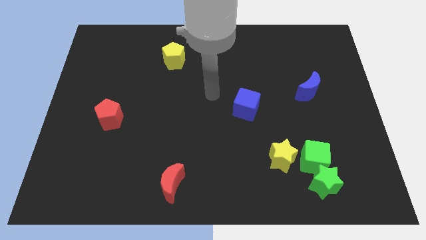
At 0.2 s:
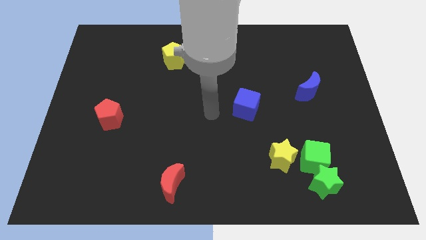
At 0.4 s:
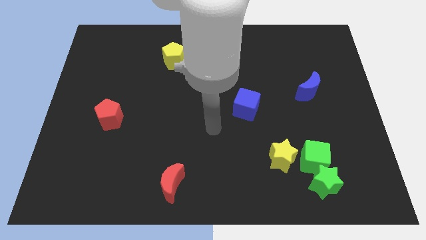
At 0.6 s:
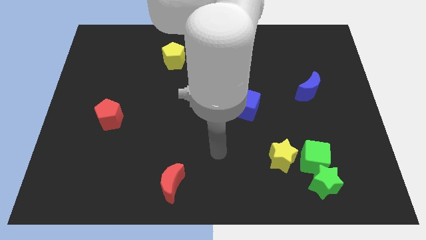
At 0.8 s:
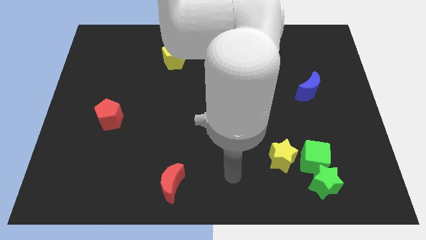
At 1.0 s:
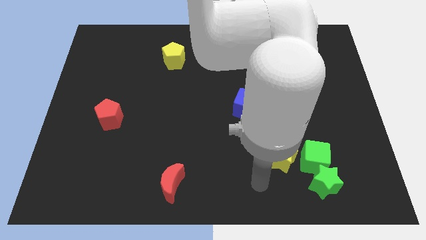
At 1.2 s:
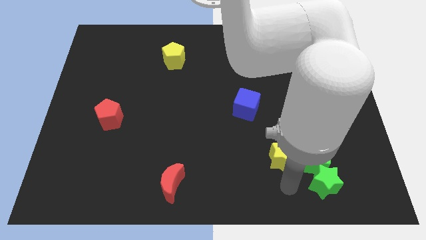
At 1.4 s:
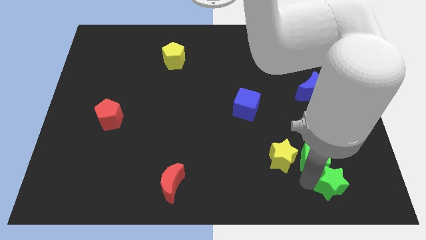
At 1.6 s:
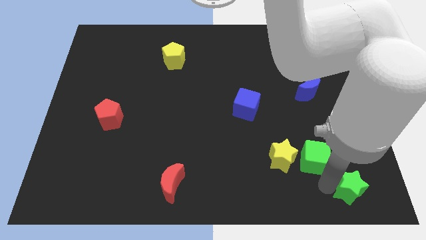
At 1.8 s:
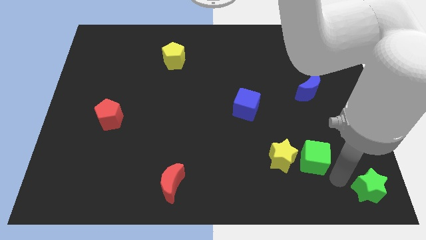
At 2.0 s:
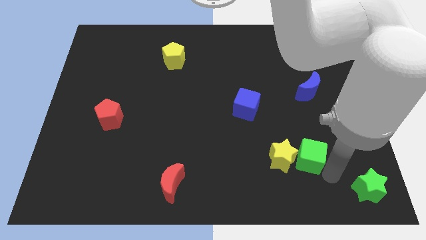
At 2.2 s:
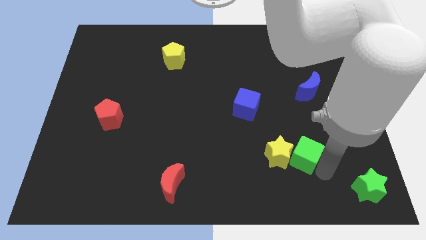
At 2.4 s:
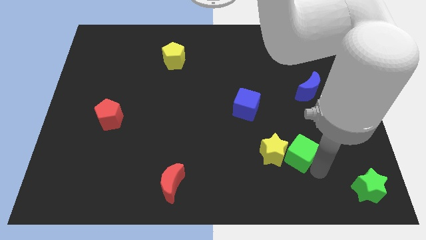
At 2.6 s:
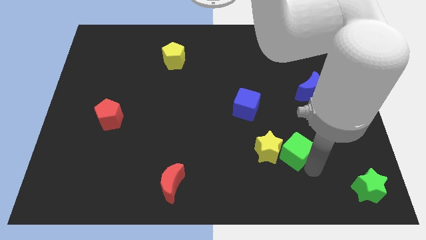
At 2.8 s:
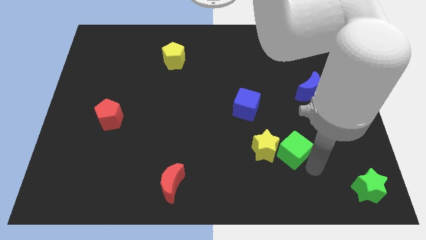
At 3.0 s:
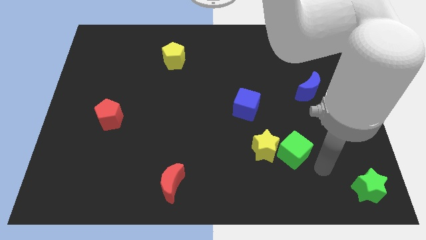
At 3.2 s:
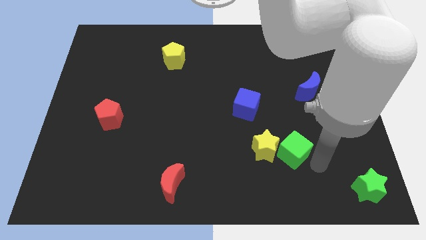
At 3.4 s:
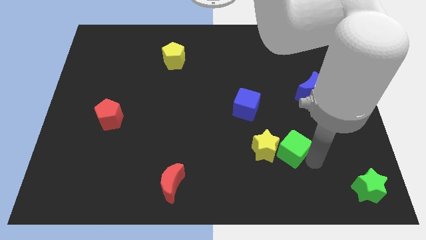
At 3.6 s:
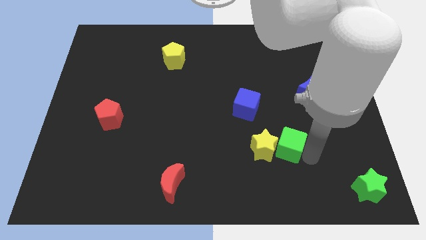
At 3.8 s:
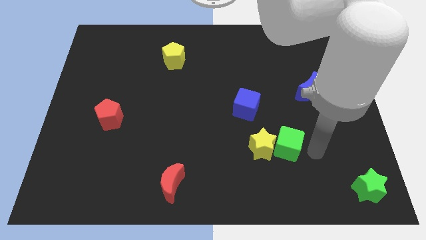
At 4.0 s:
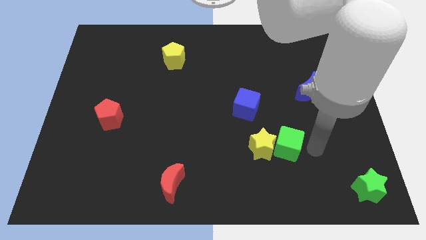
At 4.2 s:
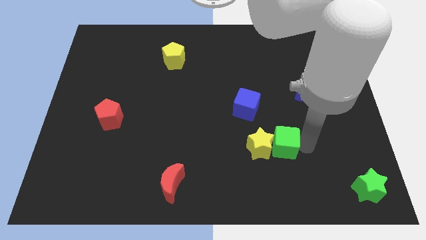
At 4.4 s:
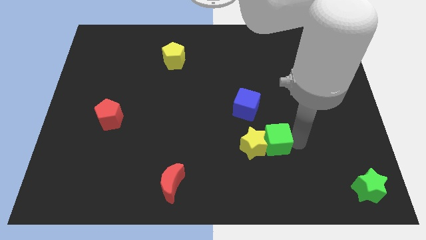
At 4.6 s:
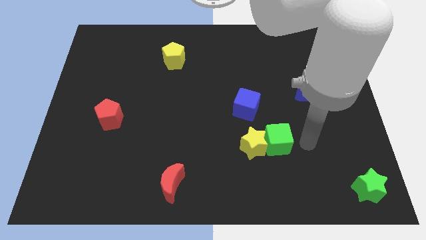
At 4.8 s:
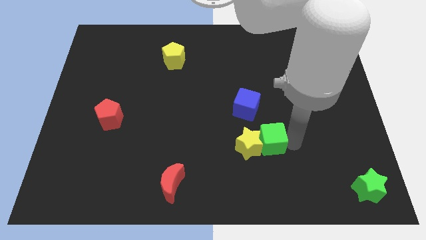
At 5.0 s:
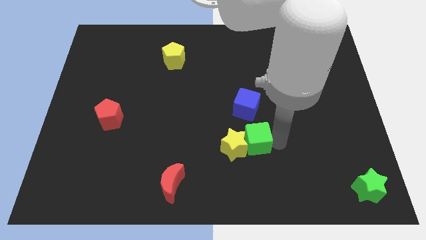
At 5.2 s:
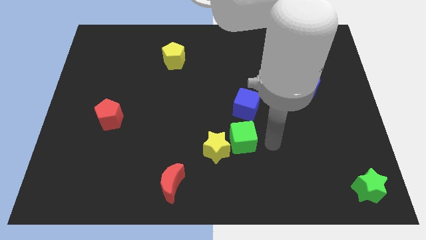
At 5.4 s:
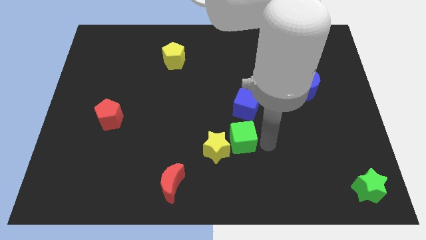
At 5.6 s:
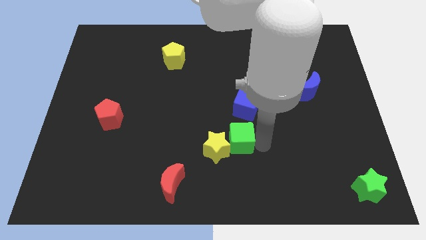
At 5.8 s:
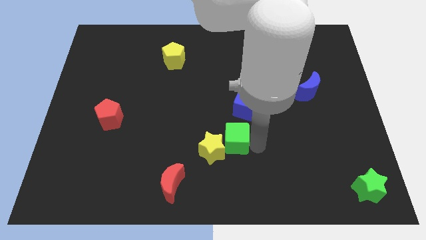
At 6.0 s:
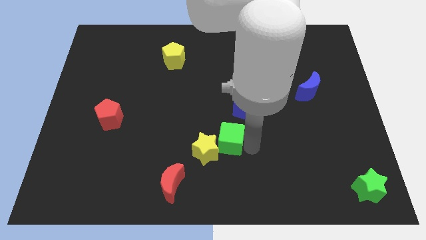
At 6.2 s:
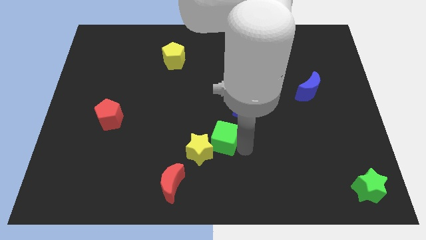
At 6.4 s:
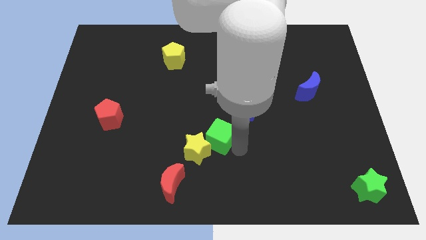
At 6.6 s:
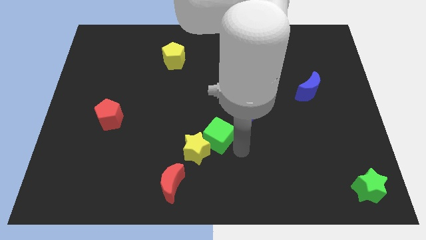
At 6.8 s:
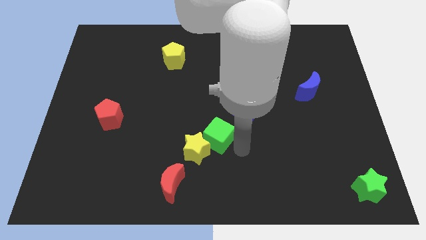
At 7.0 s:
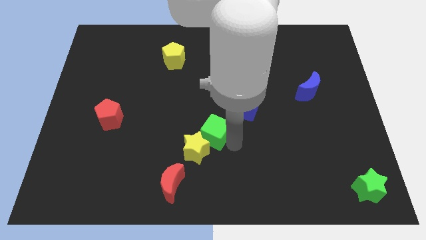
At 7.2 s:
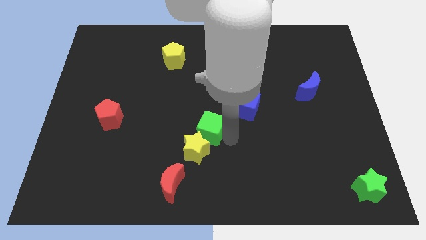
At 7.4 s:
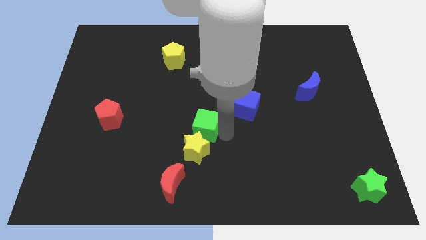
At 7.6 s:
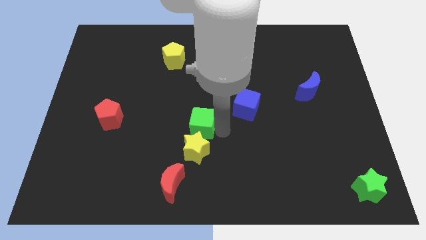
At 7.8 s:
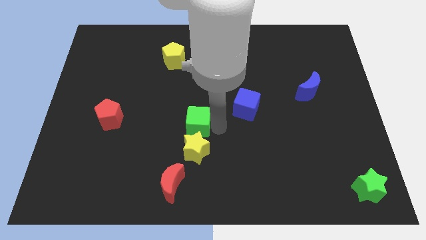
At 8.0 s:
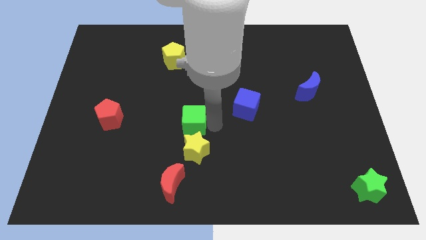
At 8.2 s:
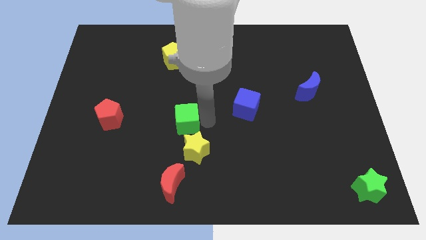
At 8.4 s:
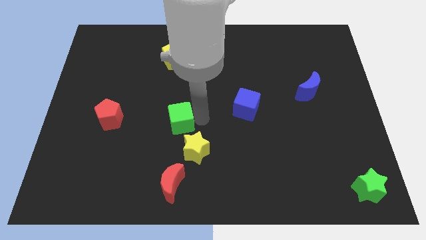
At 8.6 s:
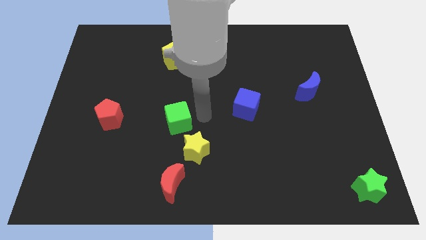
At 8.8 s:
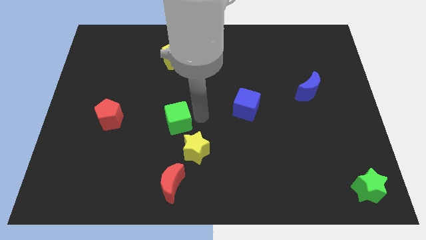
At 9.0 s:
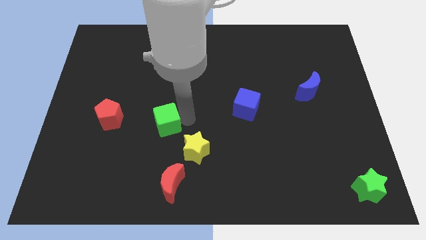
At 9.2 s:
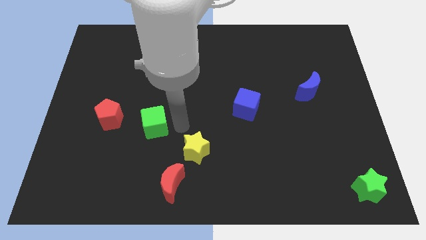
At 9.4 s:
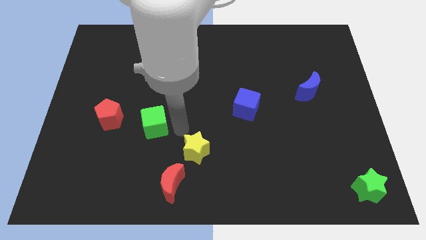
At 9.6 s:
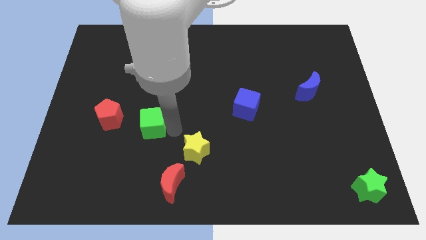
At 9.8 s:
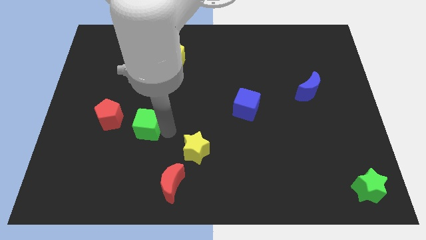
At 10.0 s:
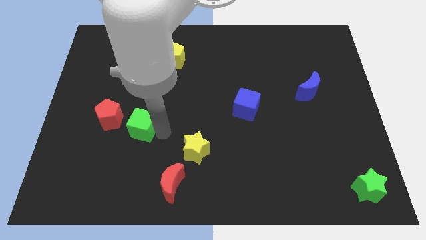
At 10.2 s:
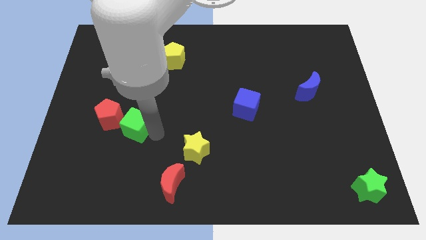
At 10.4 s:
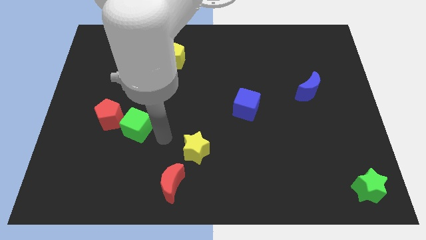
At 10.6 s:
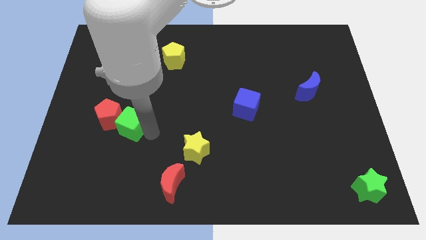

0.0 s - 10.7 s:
put the green cube towards the red pentagon

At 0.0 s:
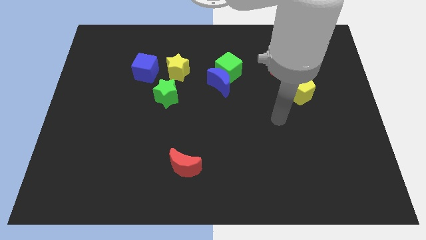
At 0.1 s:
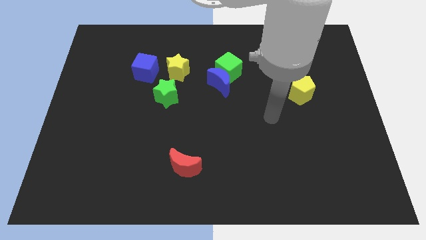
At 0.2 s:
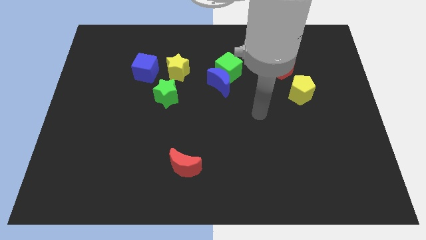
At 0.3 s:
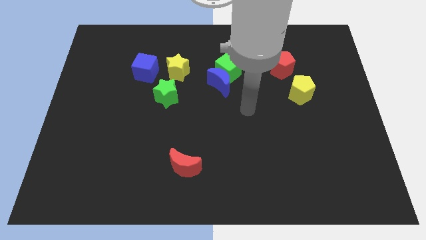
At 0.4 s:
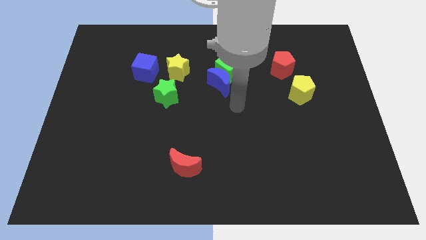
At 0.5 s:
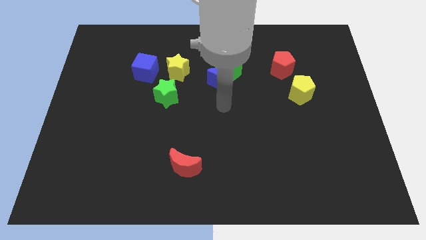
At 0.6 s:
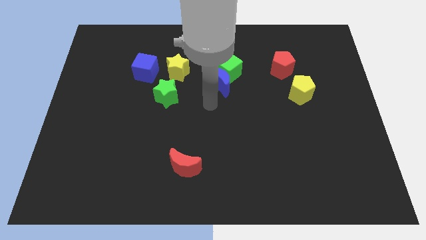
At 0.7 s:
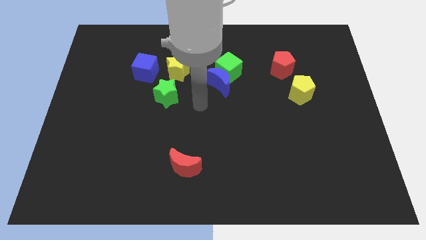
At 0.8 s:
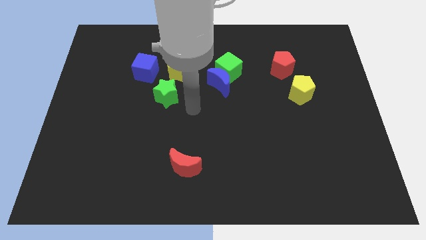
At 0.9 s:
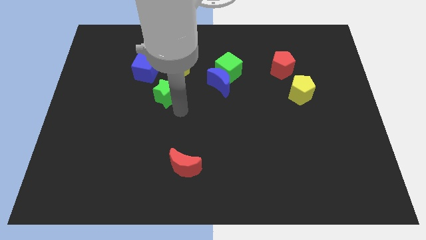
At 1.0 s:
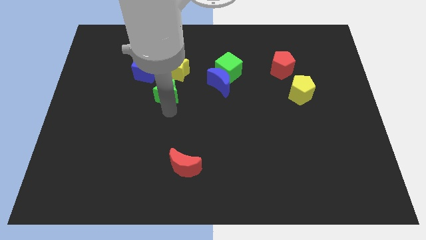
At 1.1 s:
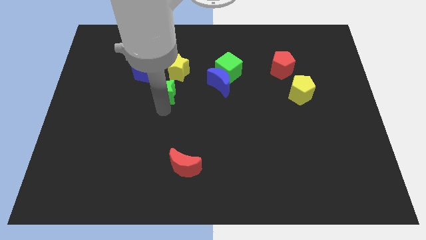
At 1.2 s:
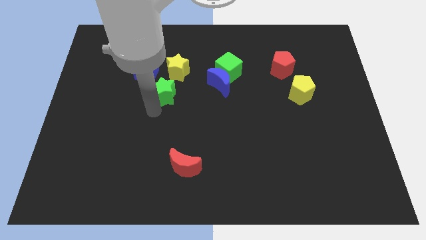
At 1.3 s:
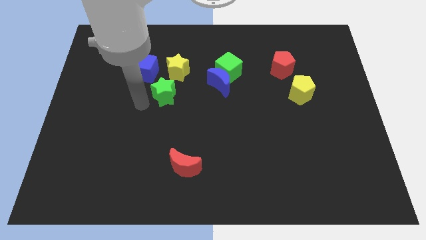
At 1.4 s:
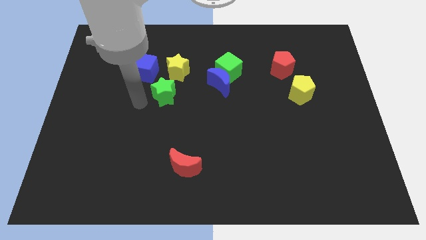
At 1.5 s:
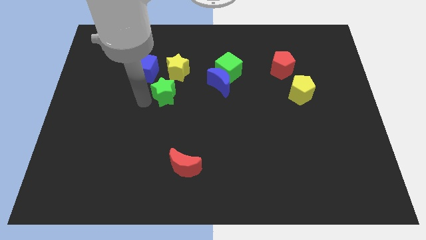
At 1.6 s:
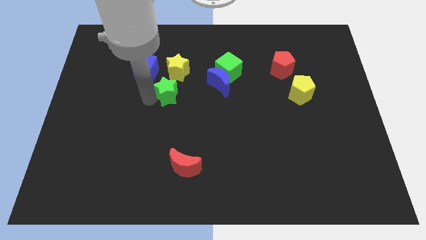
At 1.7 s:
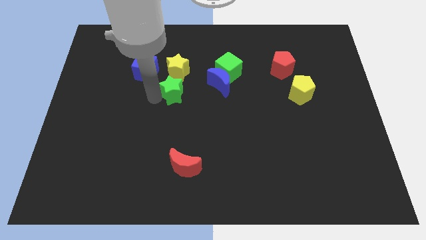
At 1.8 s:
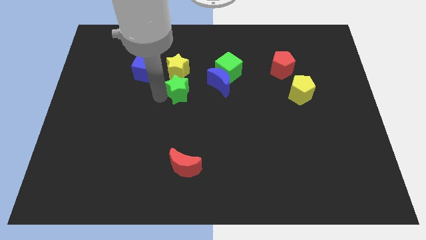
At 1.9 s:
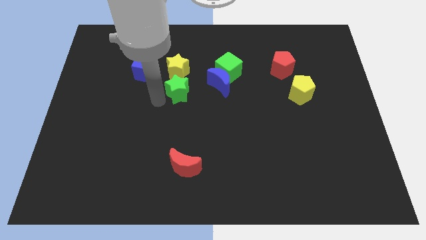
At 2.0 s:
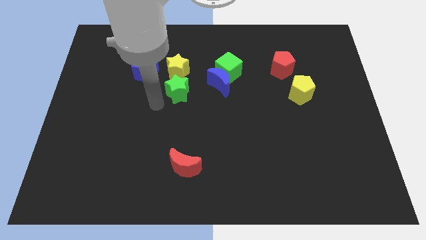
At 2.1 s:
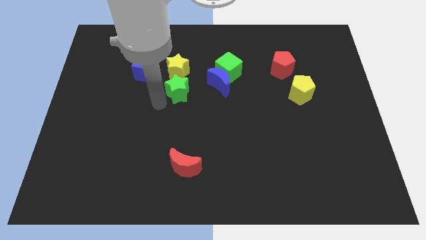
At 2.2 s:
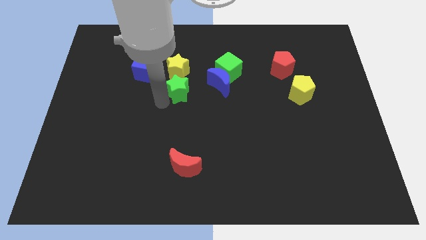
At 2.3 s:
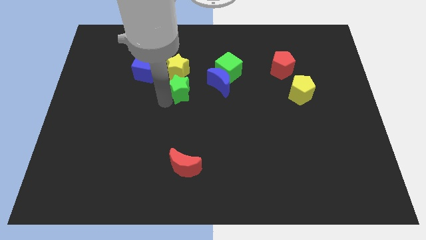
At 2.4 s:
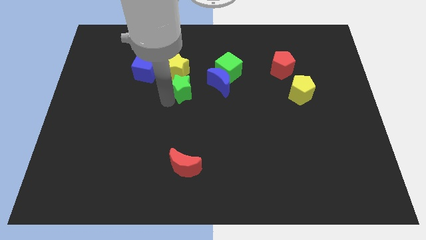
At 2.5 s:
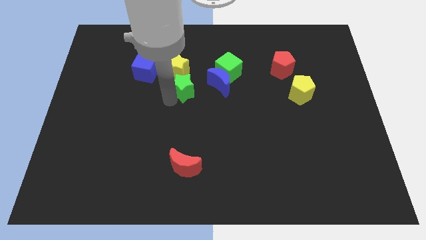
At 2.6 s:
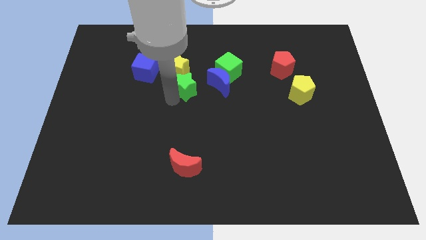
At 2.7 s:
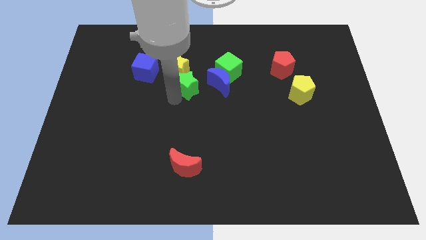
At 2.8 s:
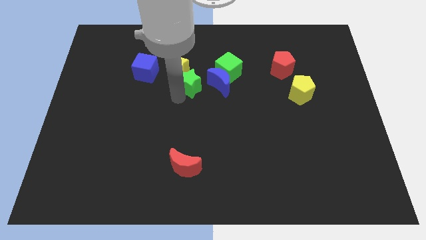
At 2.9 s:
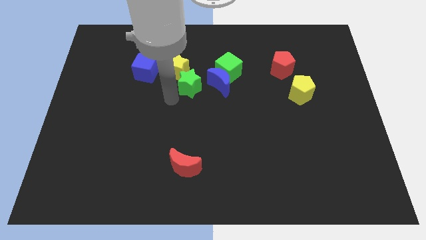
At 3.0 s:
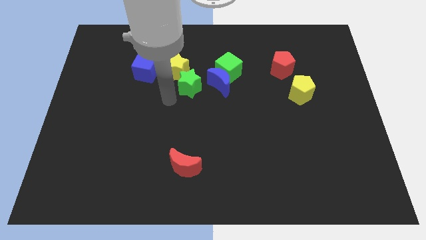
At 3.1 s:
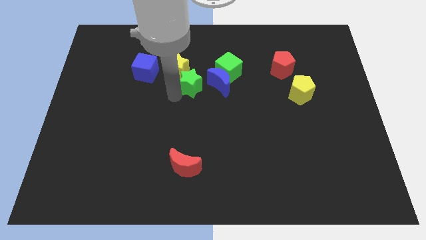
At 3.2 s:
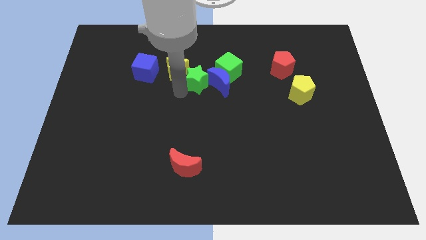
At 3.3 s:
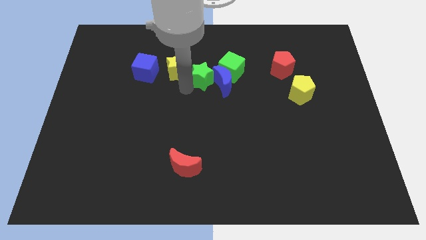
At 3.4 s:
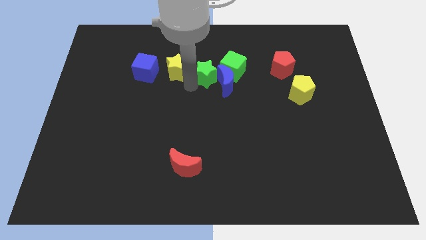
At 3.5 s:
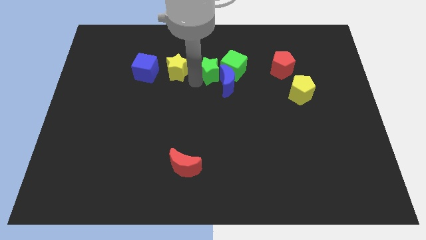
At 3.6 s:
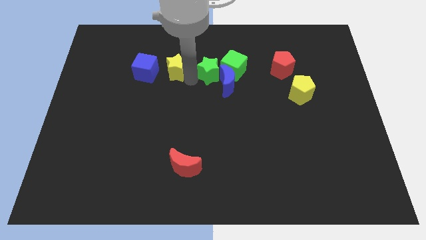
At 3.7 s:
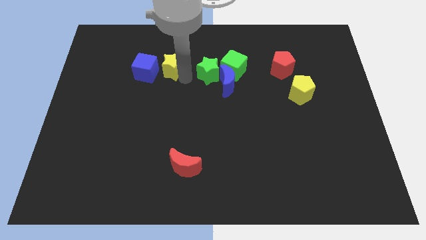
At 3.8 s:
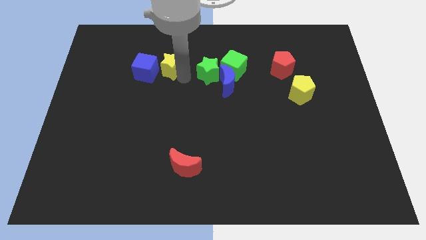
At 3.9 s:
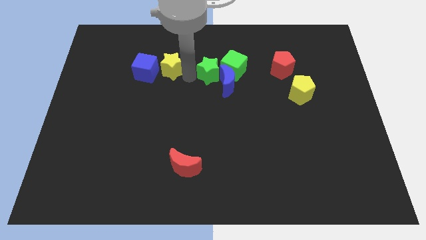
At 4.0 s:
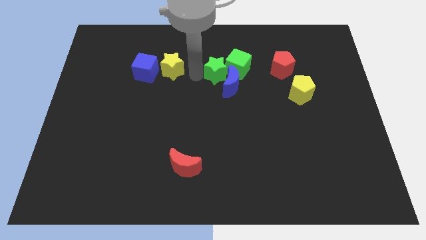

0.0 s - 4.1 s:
move the green star to the green cube
